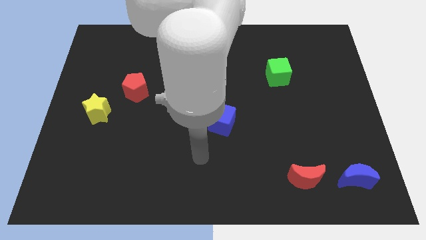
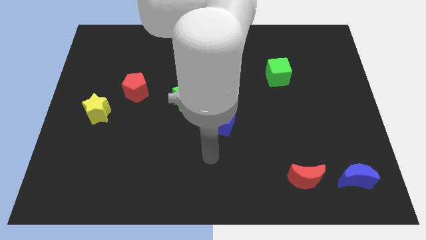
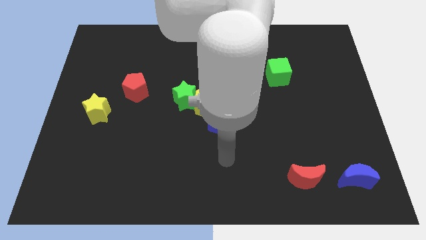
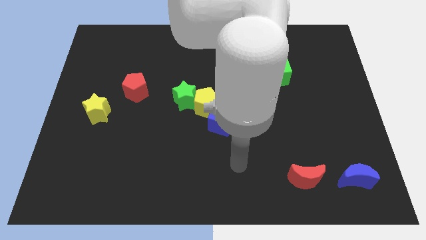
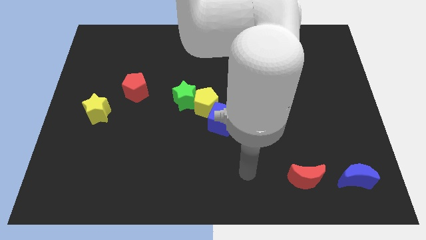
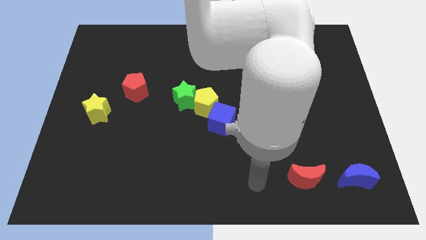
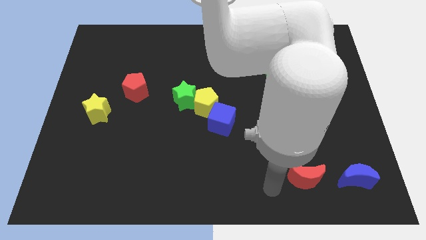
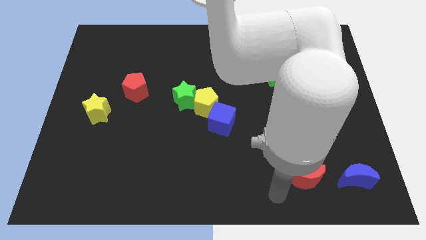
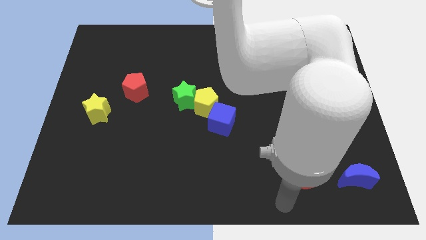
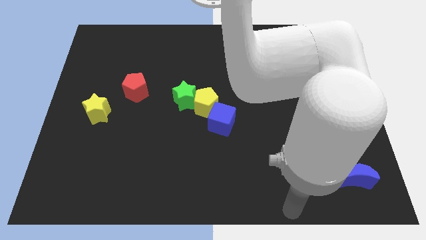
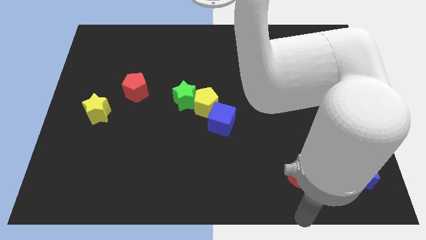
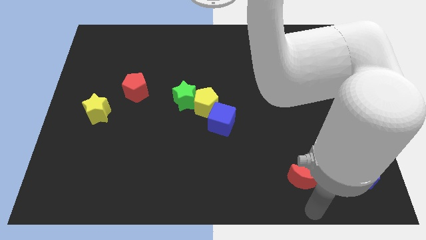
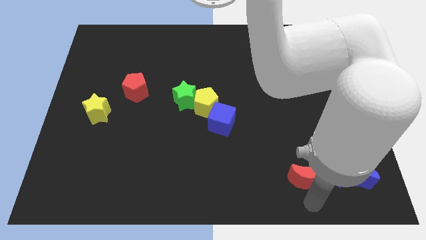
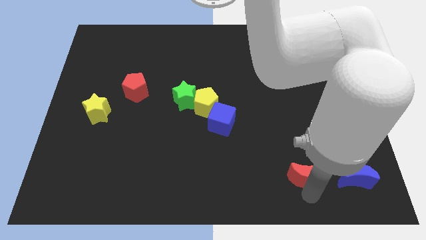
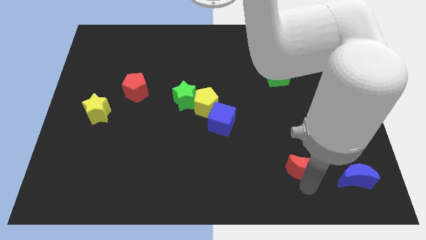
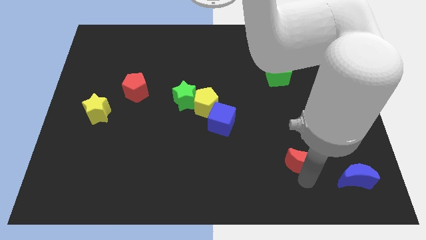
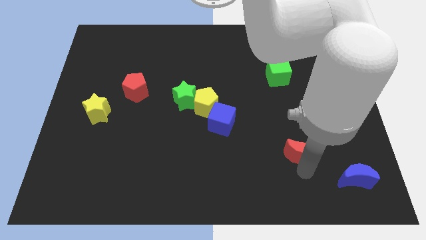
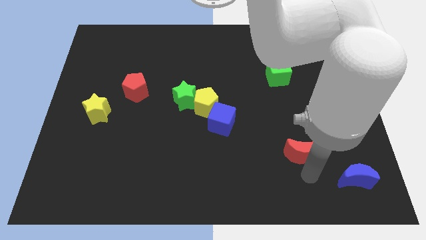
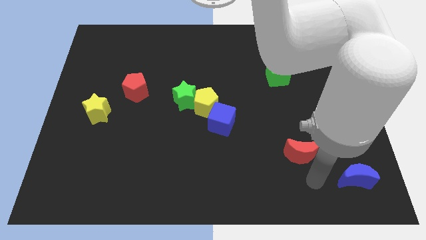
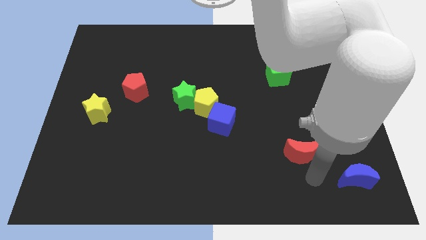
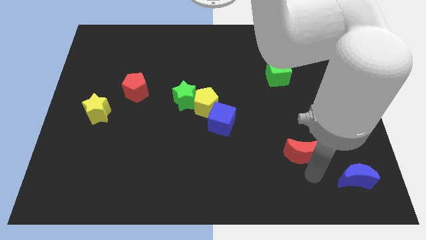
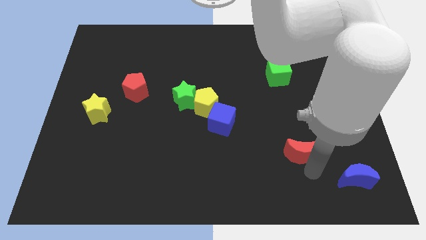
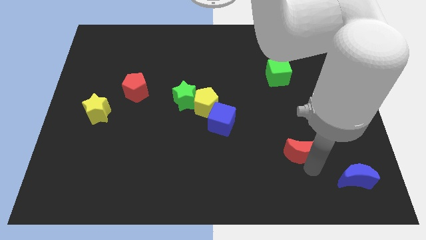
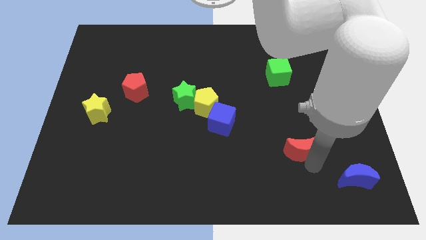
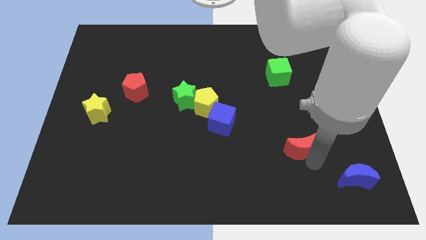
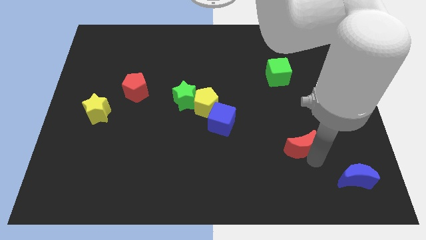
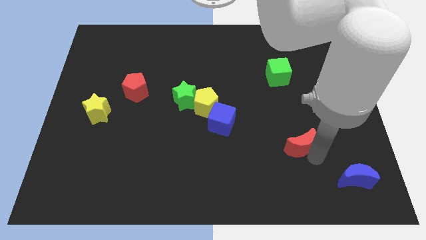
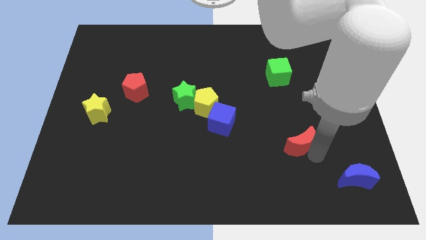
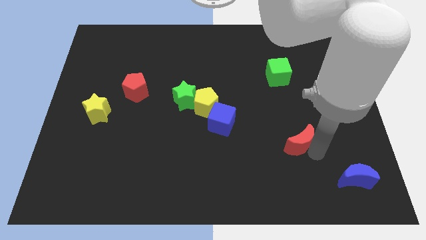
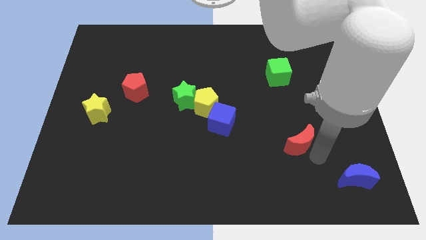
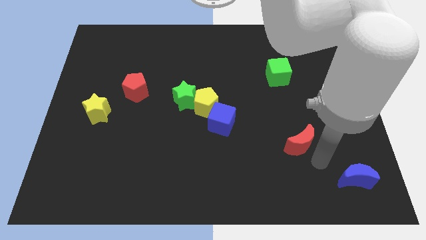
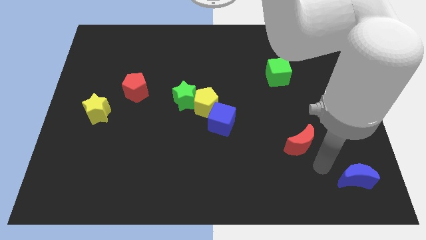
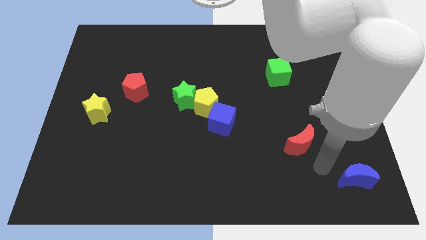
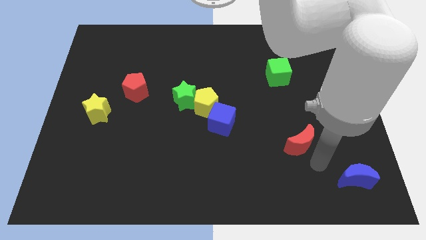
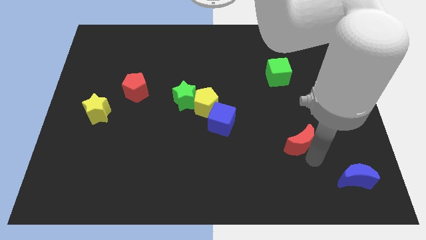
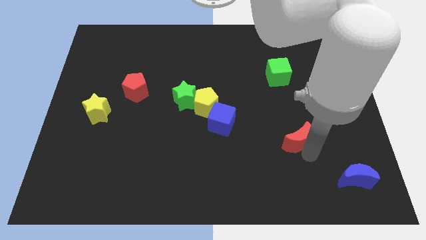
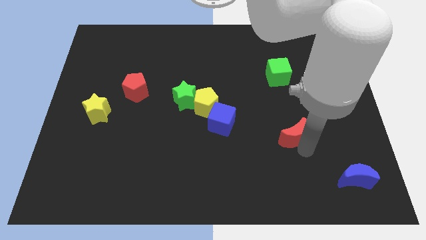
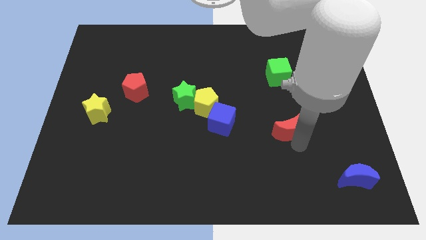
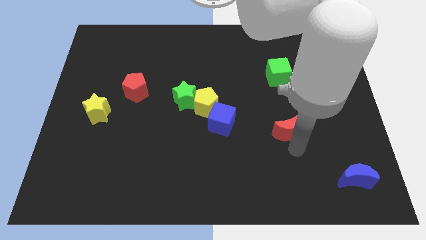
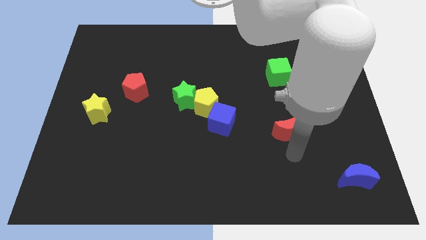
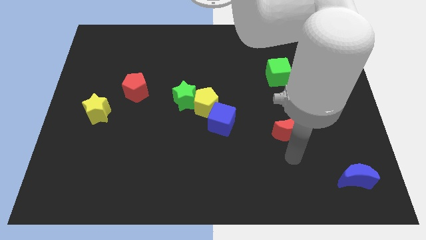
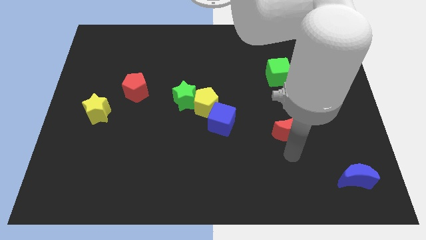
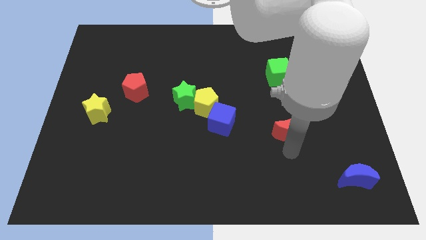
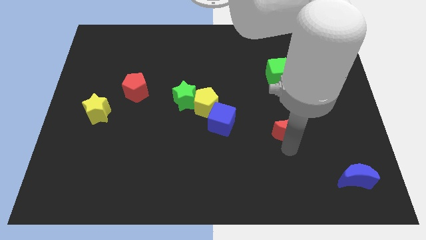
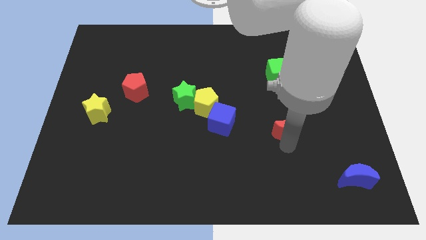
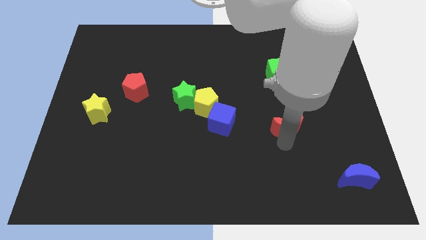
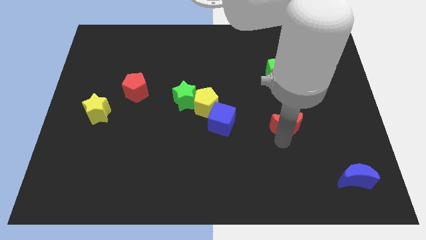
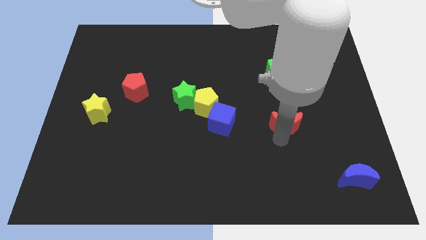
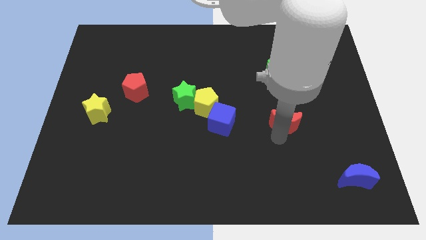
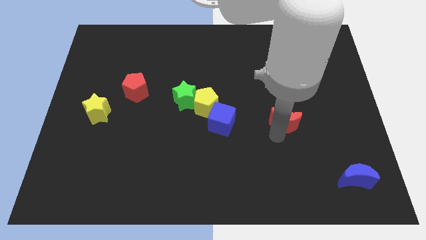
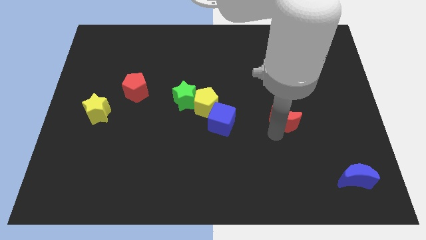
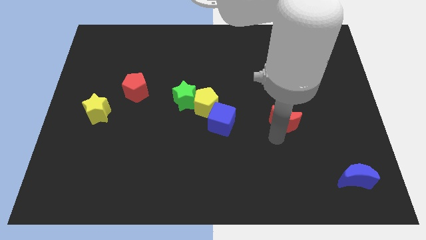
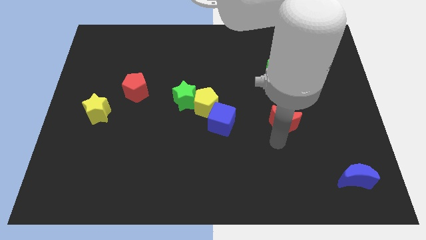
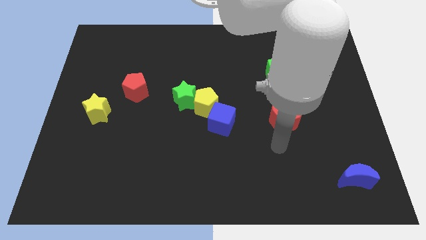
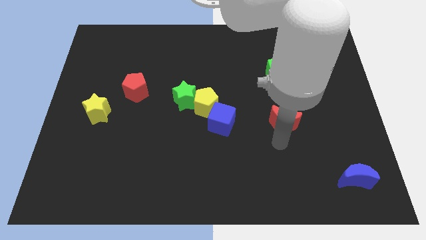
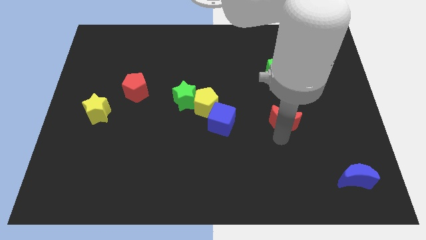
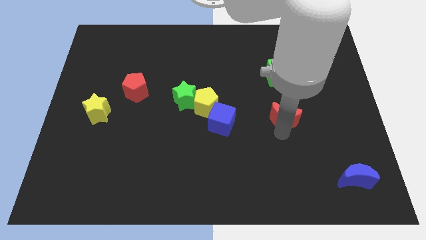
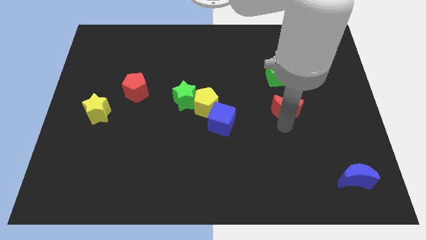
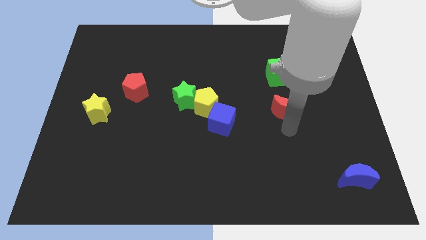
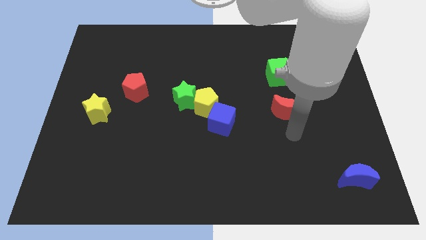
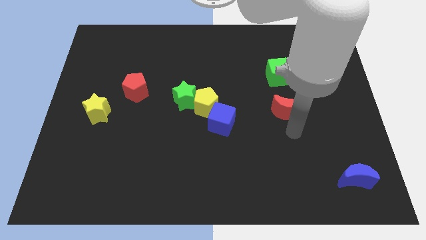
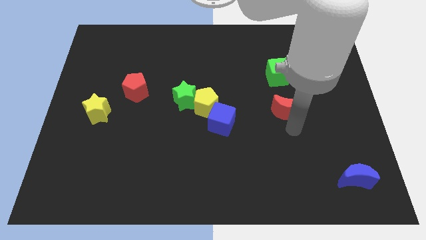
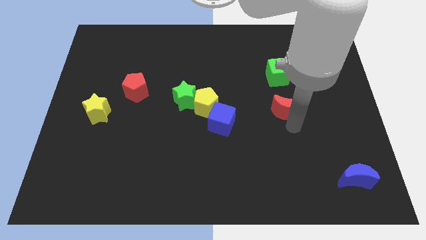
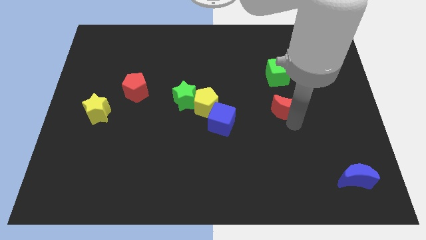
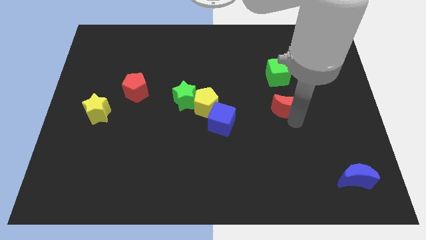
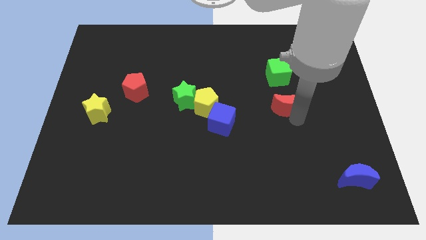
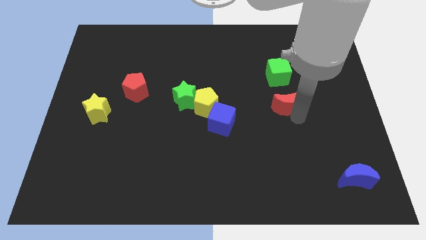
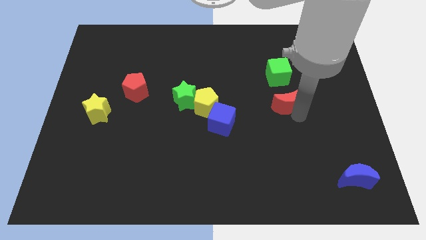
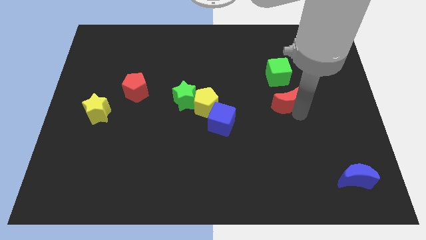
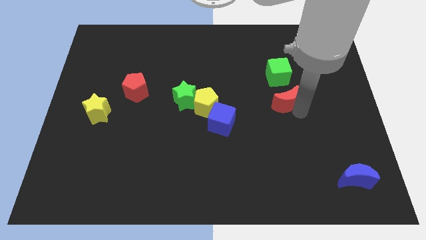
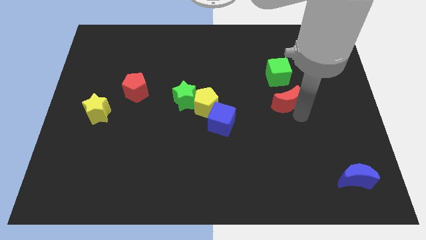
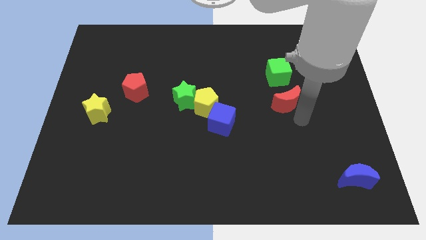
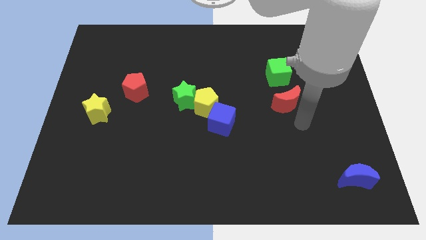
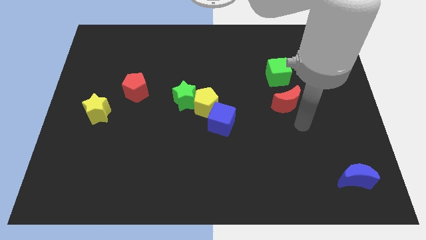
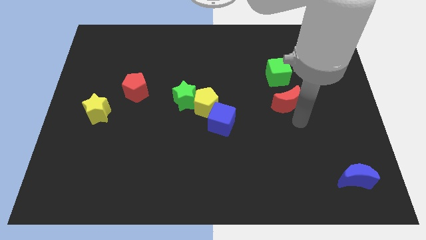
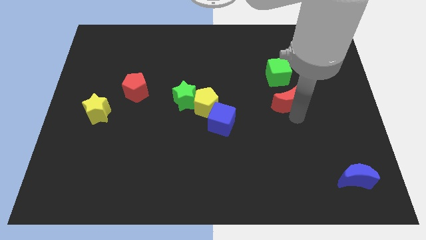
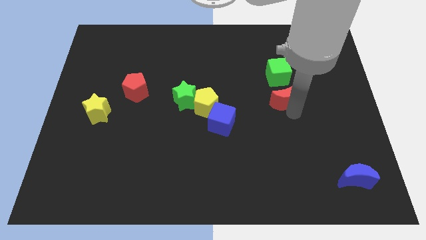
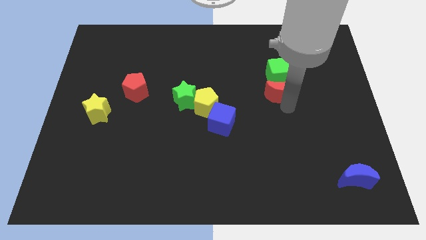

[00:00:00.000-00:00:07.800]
put the red moon next to the green cube
